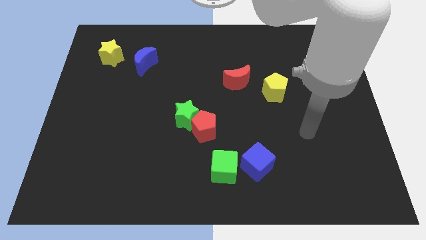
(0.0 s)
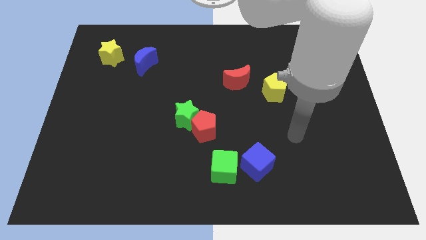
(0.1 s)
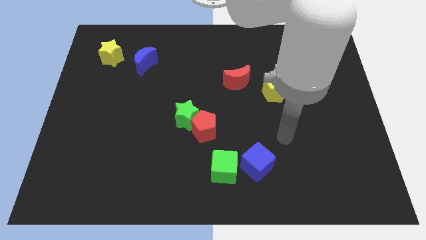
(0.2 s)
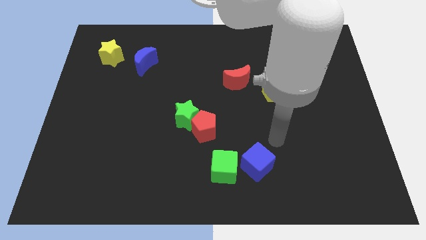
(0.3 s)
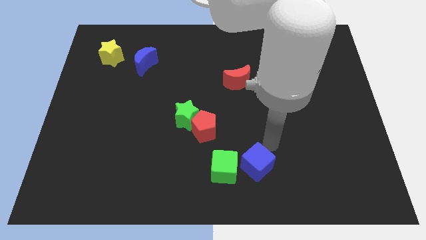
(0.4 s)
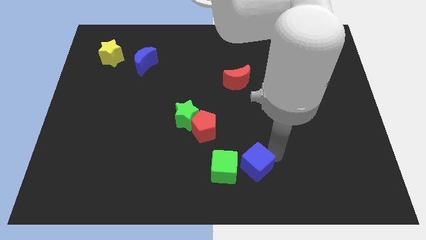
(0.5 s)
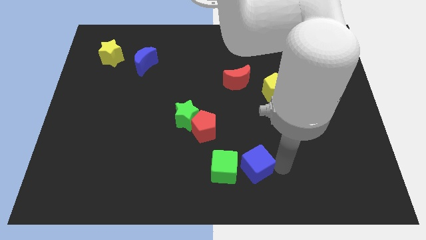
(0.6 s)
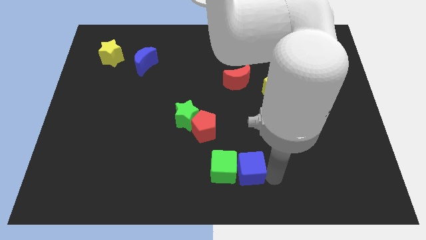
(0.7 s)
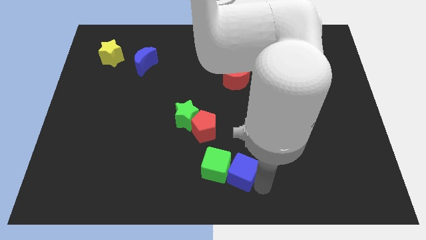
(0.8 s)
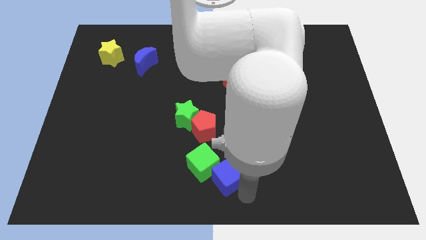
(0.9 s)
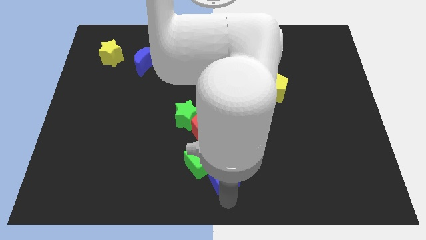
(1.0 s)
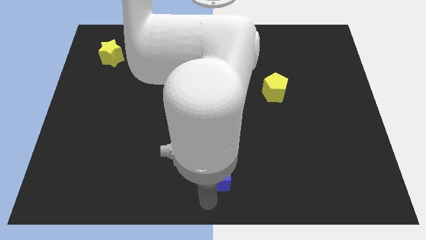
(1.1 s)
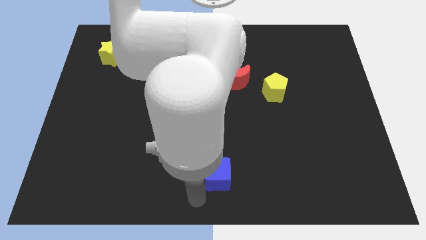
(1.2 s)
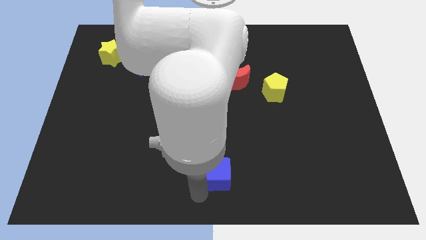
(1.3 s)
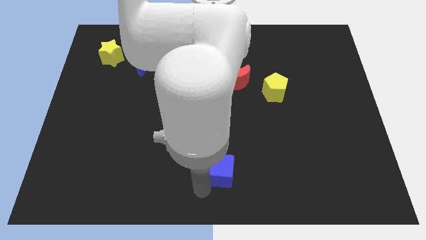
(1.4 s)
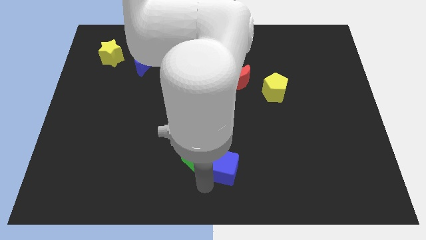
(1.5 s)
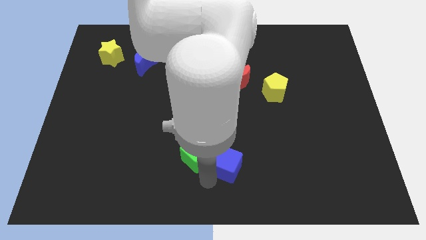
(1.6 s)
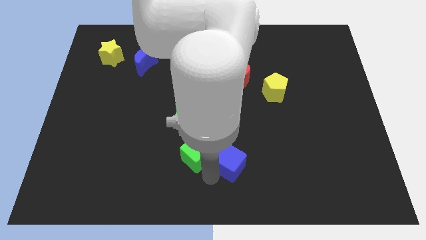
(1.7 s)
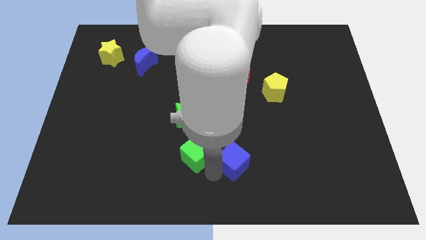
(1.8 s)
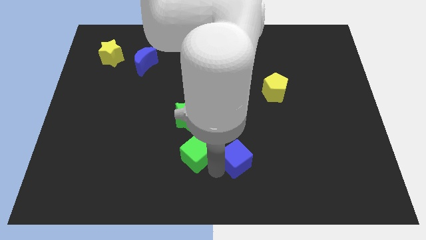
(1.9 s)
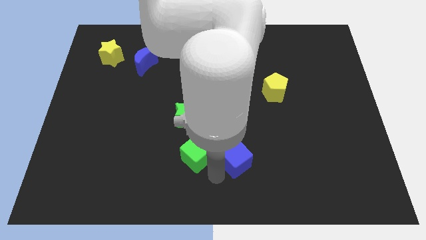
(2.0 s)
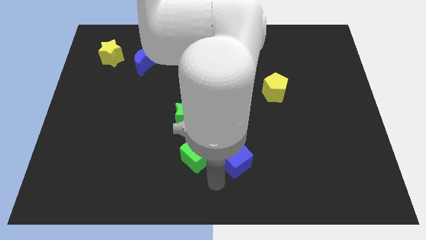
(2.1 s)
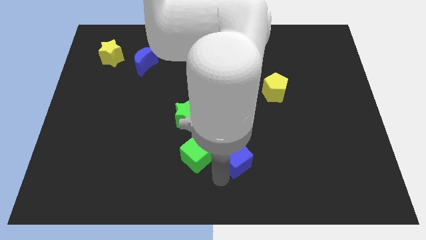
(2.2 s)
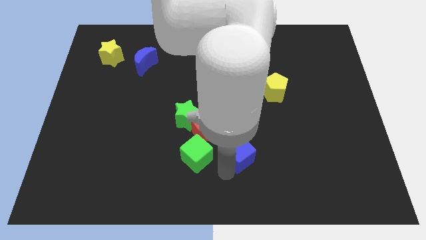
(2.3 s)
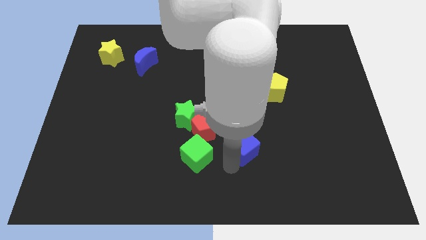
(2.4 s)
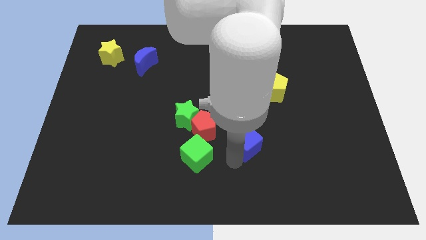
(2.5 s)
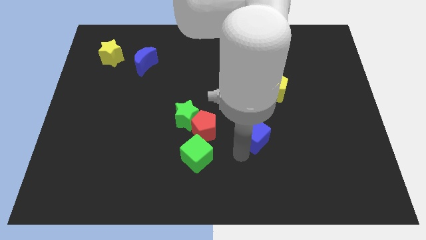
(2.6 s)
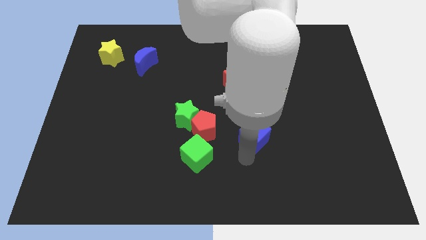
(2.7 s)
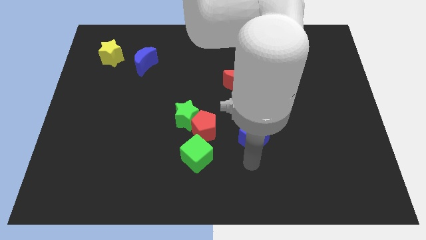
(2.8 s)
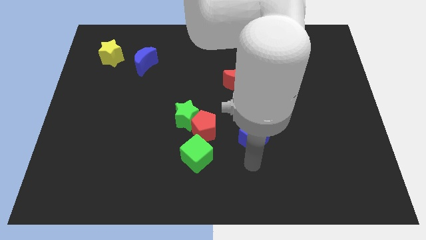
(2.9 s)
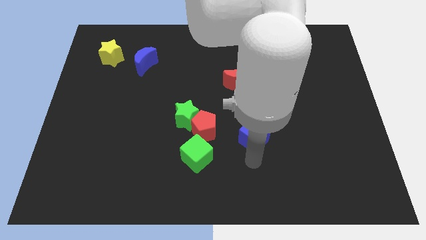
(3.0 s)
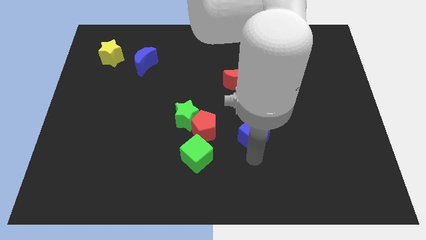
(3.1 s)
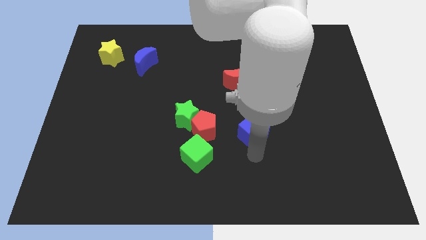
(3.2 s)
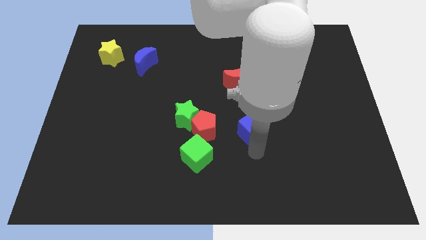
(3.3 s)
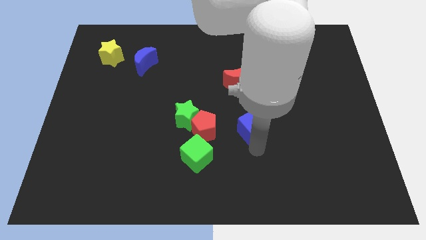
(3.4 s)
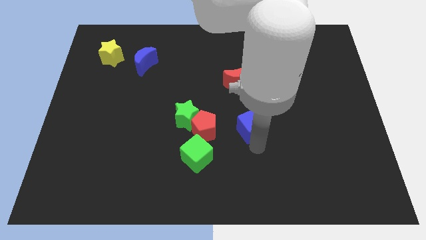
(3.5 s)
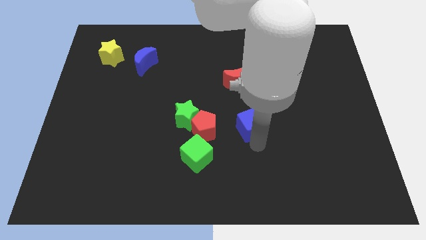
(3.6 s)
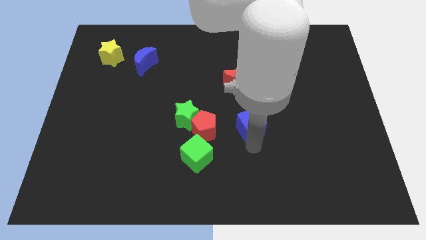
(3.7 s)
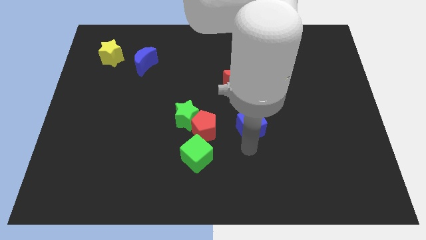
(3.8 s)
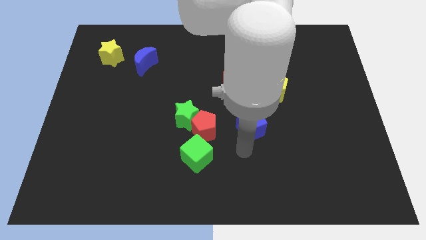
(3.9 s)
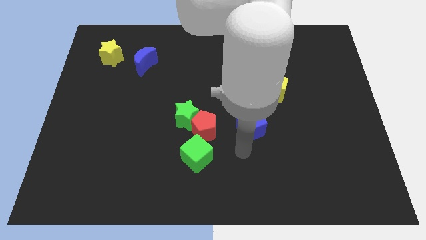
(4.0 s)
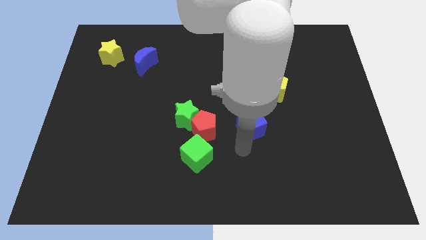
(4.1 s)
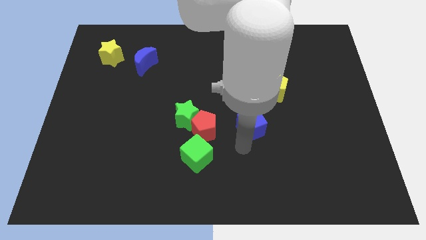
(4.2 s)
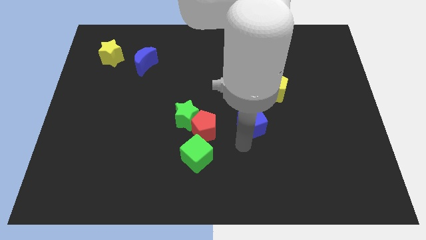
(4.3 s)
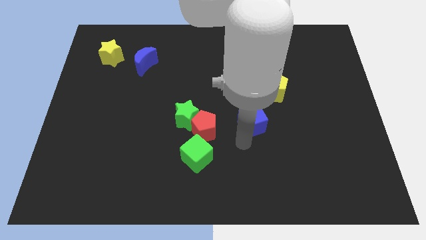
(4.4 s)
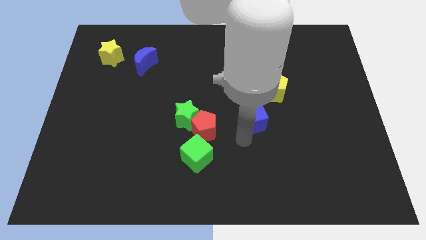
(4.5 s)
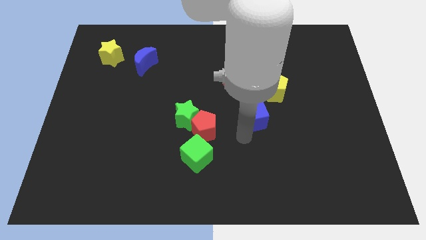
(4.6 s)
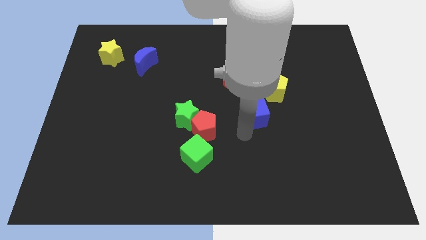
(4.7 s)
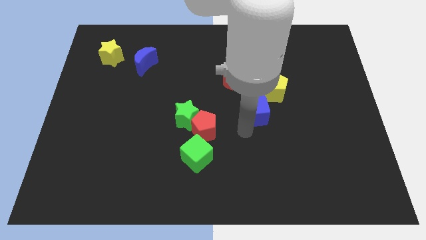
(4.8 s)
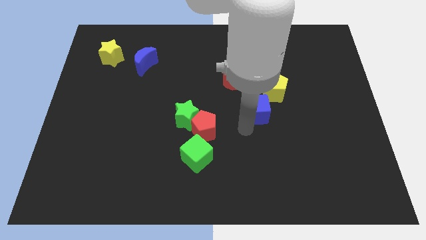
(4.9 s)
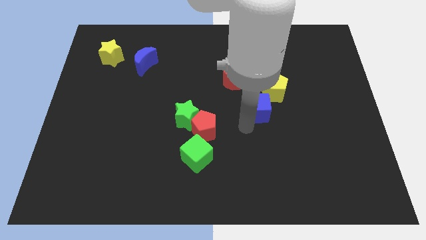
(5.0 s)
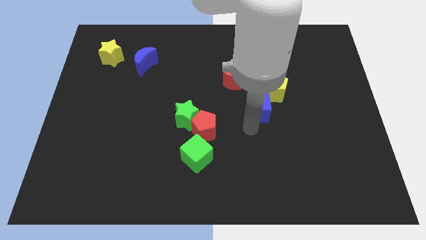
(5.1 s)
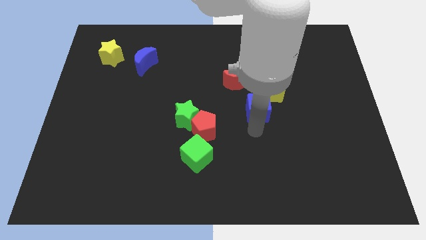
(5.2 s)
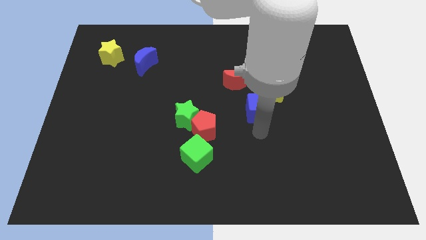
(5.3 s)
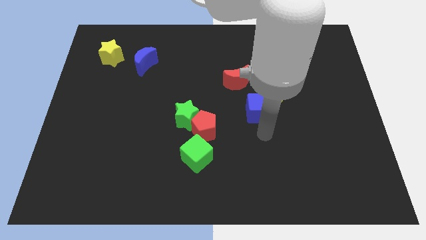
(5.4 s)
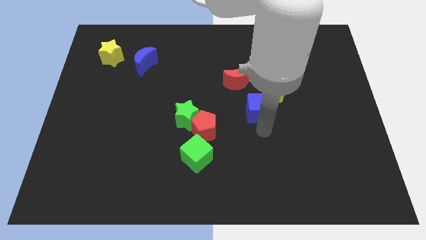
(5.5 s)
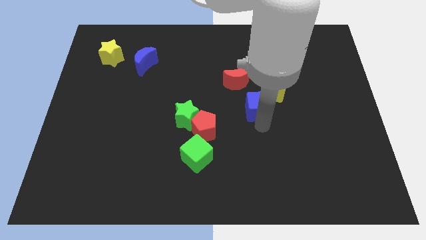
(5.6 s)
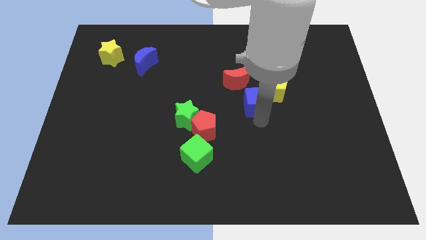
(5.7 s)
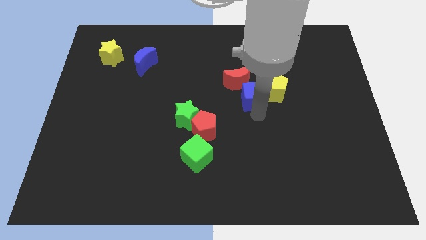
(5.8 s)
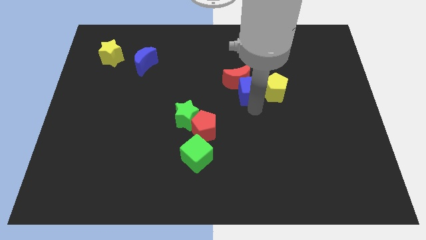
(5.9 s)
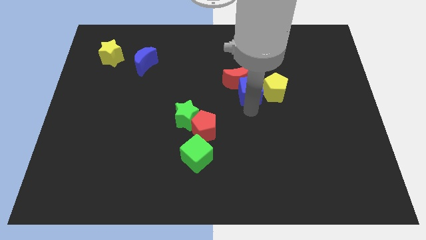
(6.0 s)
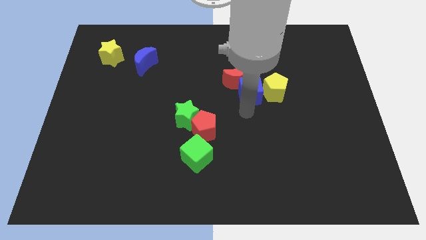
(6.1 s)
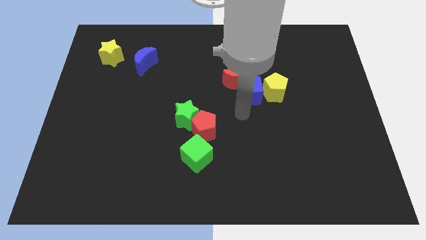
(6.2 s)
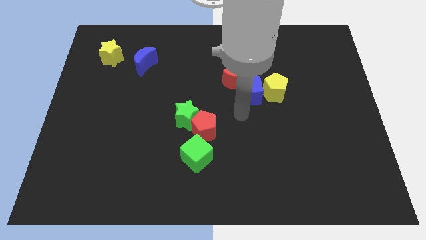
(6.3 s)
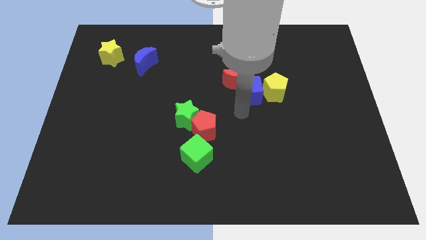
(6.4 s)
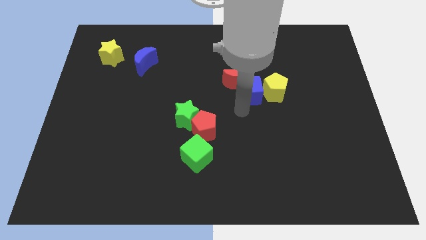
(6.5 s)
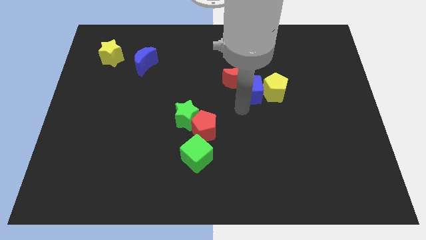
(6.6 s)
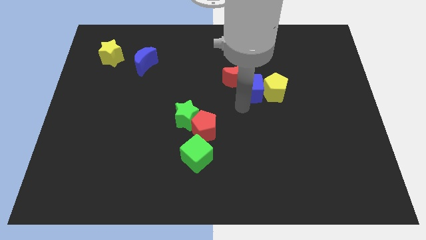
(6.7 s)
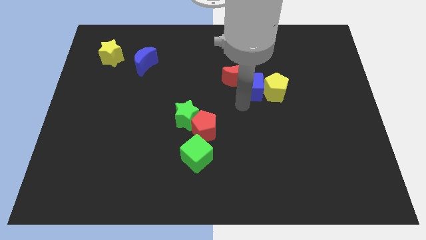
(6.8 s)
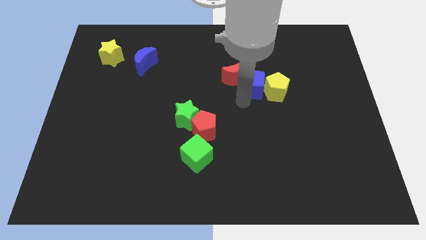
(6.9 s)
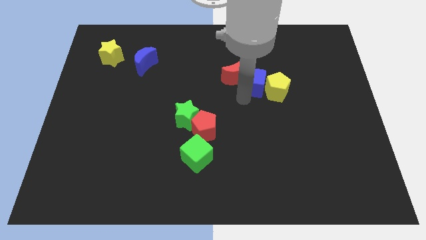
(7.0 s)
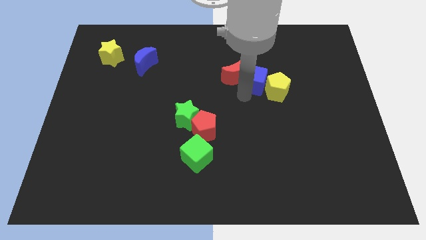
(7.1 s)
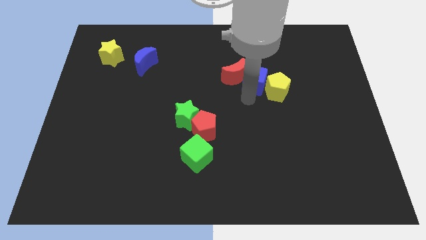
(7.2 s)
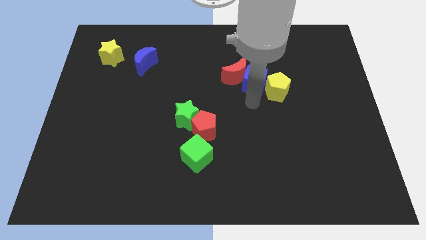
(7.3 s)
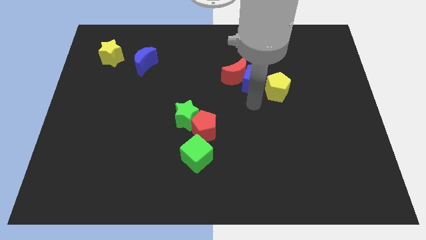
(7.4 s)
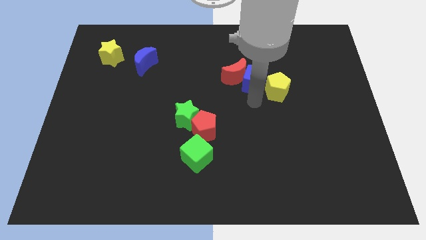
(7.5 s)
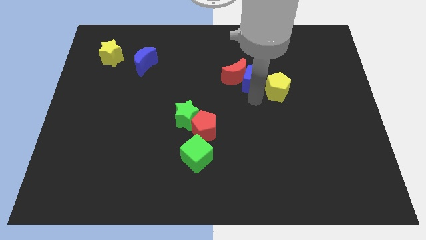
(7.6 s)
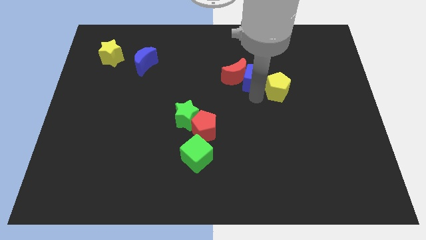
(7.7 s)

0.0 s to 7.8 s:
push the blue cube to the top right of the red moon
